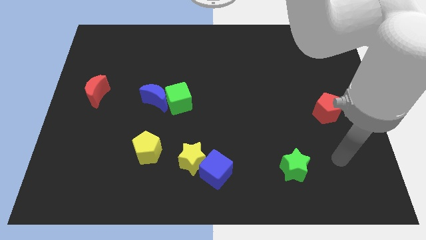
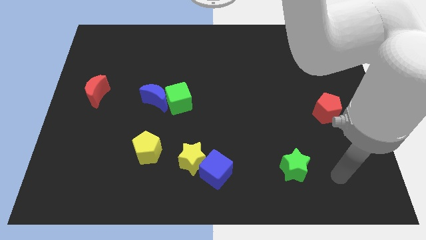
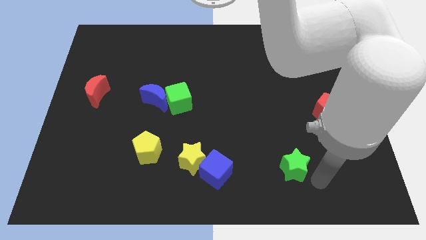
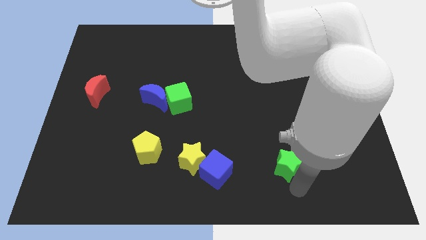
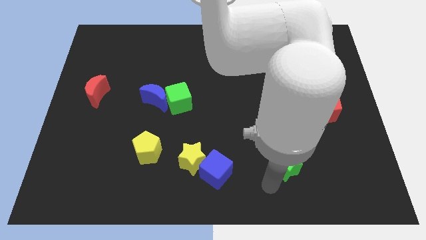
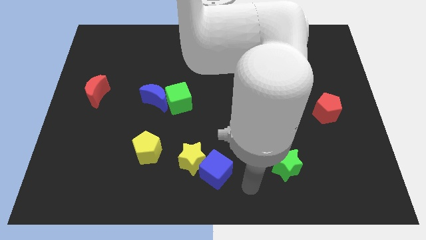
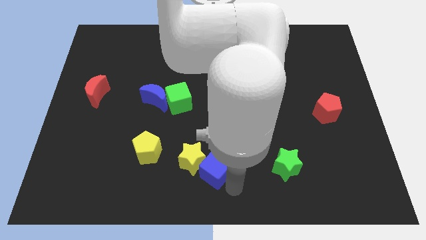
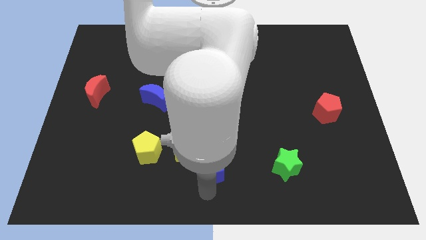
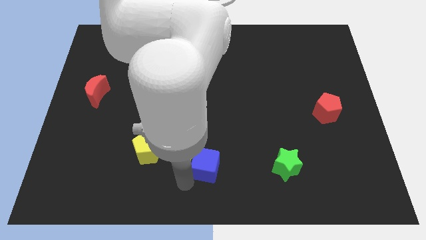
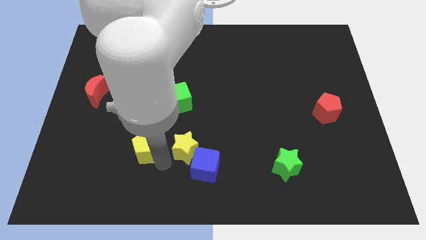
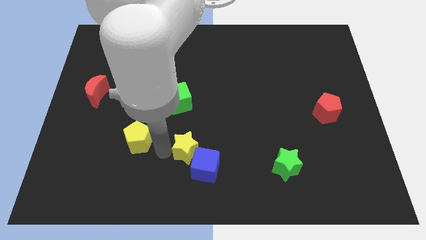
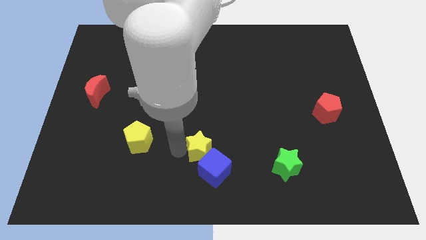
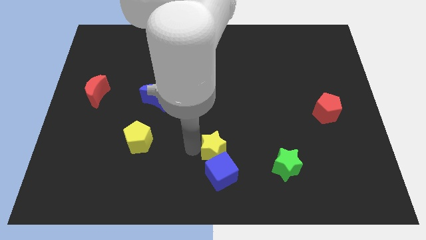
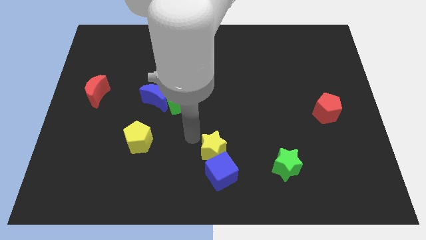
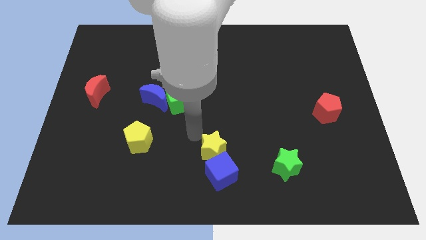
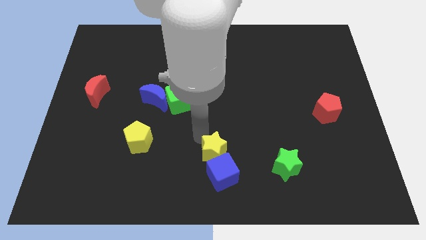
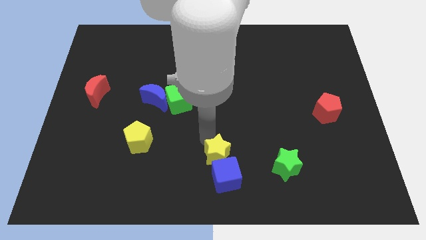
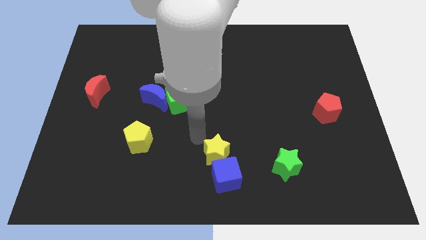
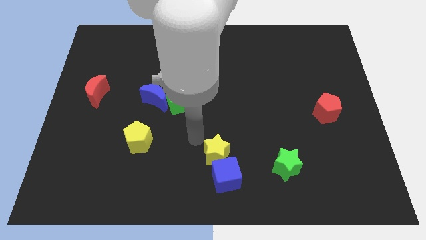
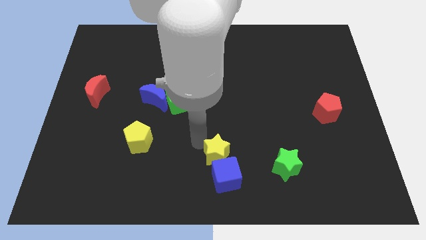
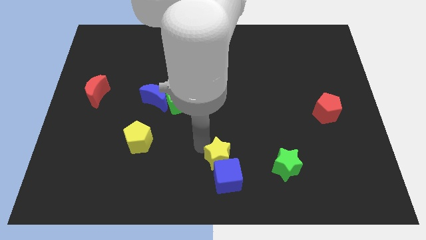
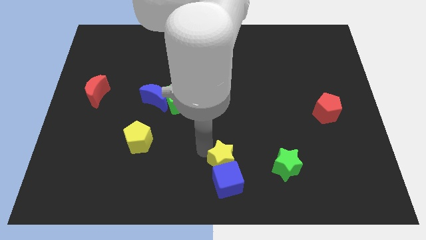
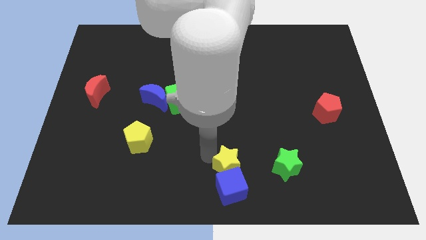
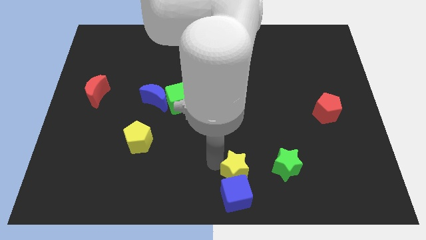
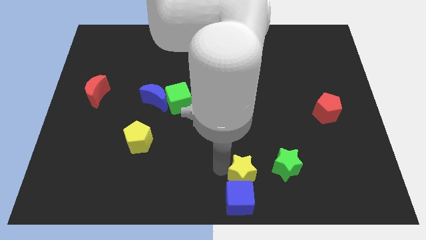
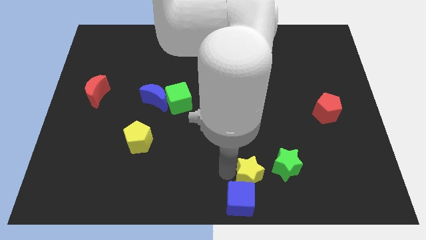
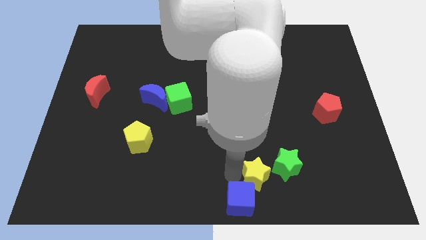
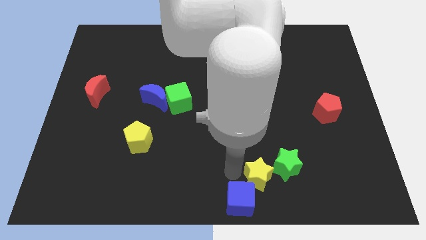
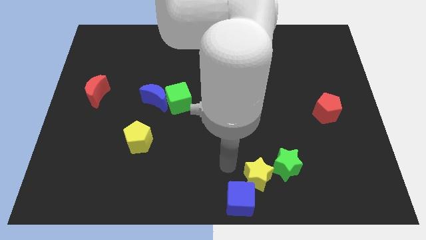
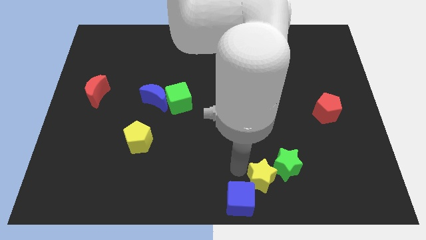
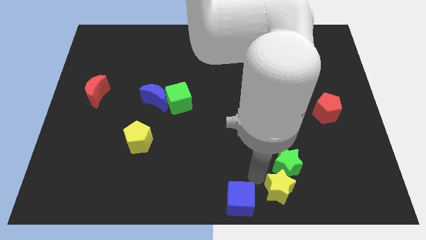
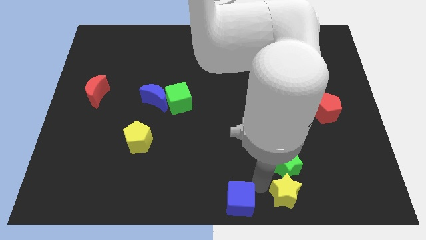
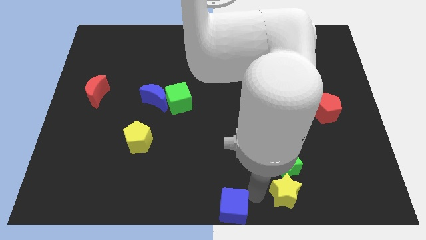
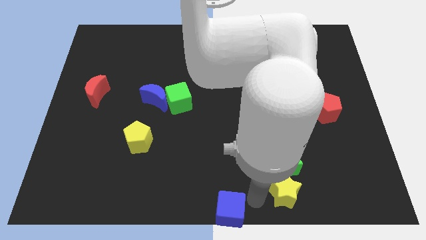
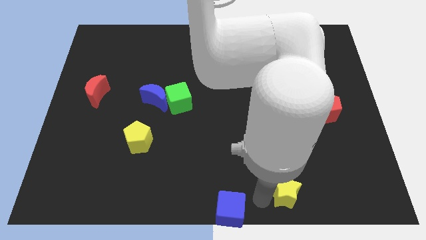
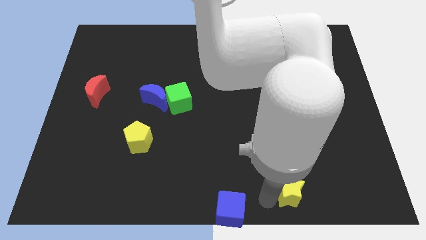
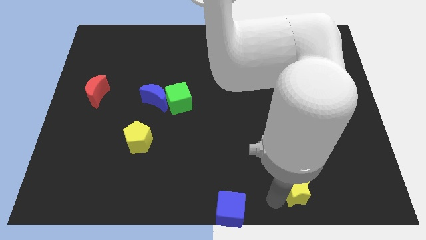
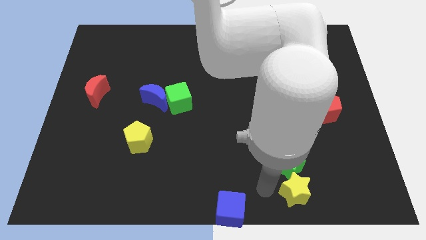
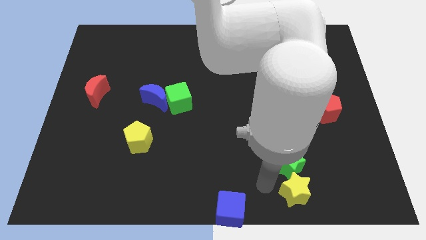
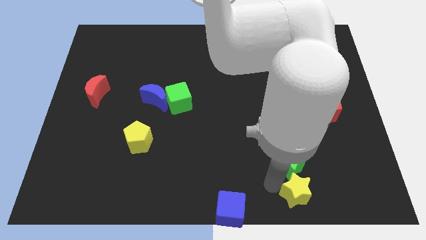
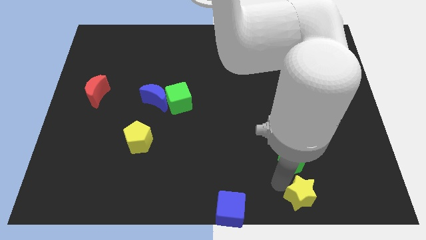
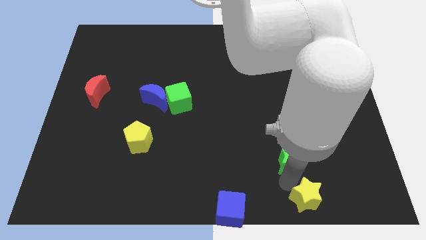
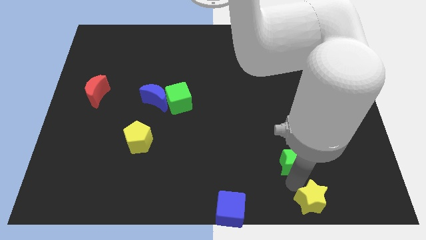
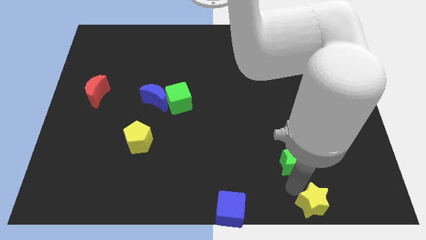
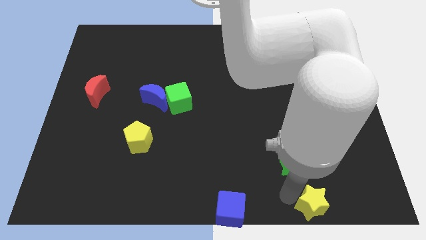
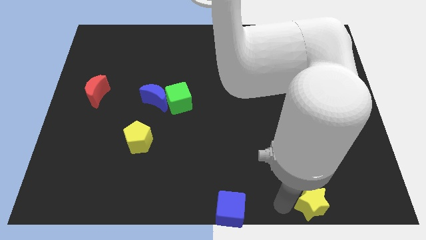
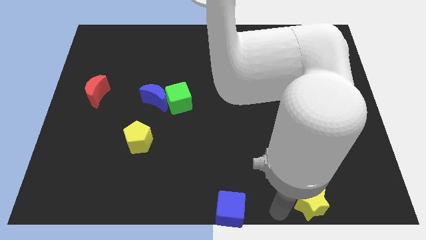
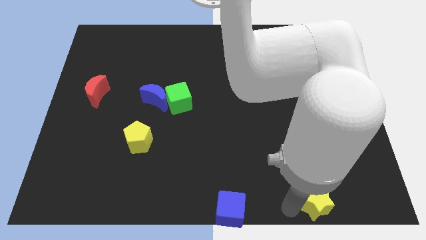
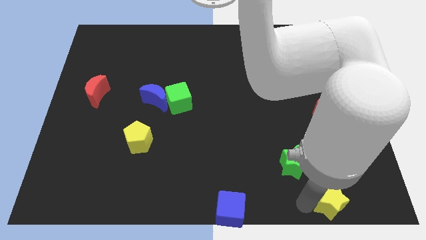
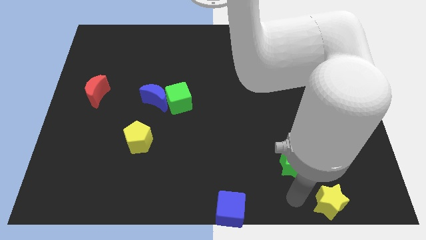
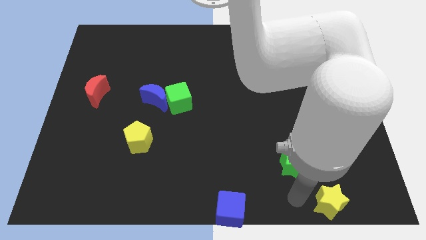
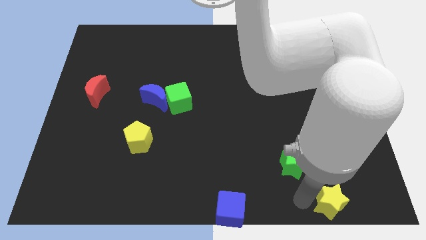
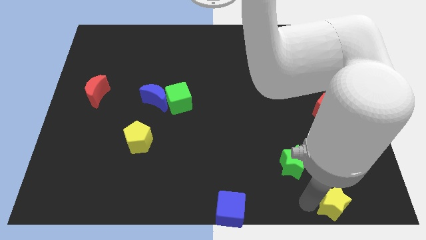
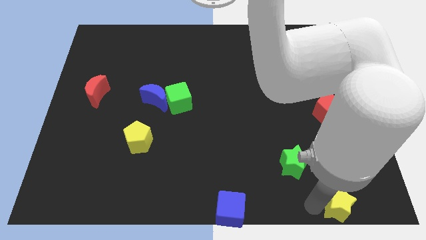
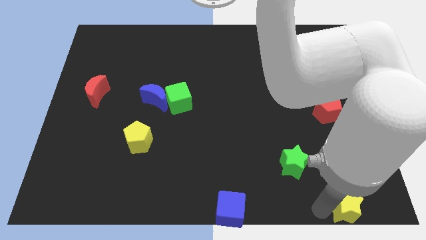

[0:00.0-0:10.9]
slide the yellow star to the bottom right of the board
